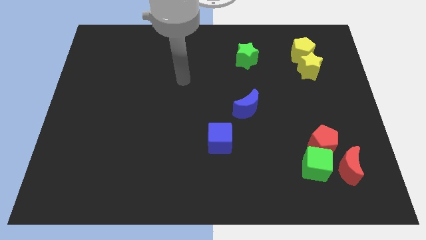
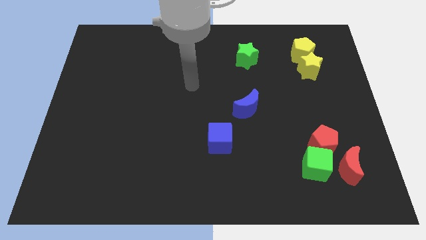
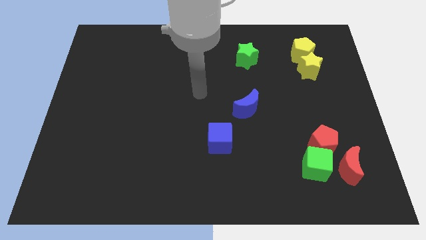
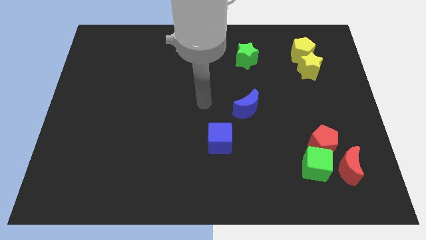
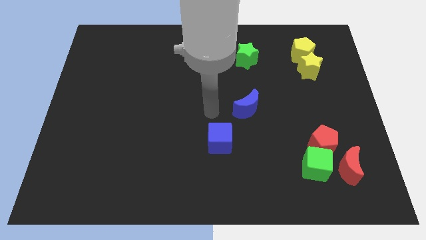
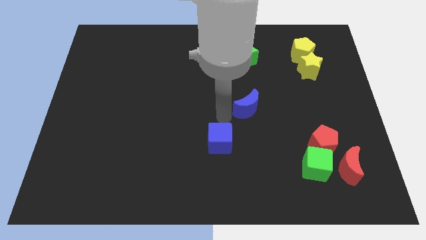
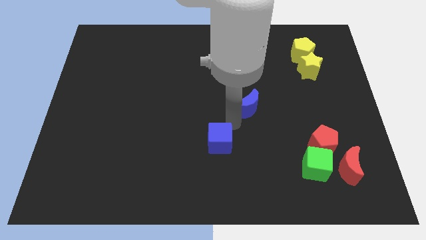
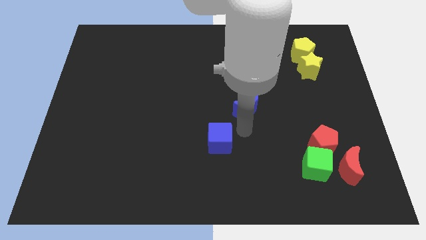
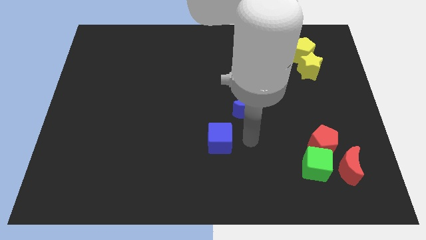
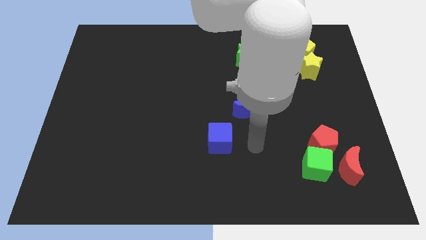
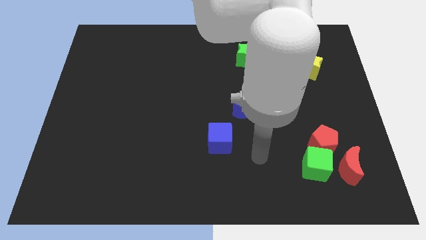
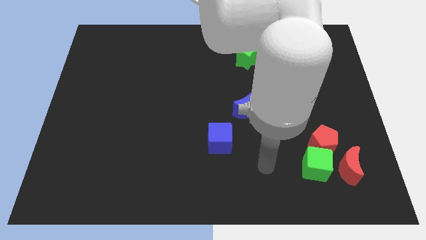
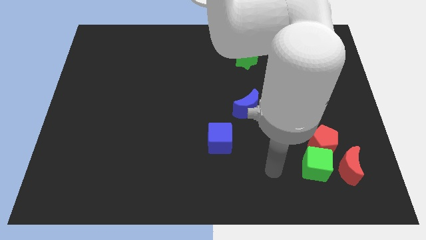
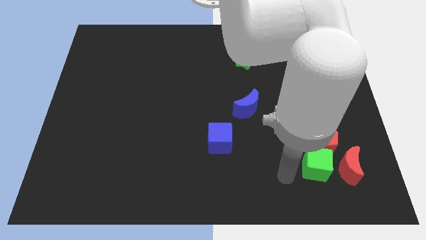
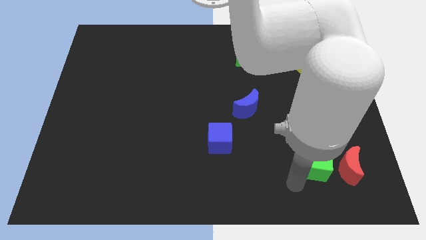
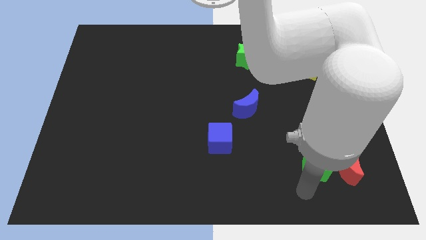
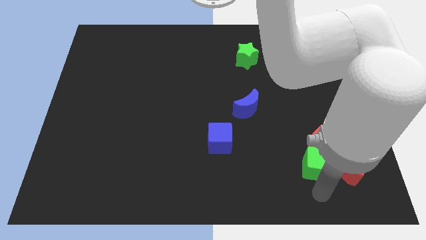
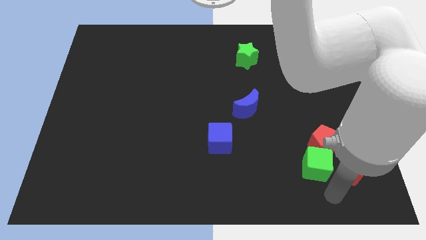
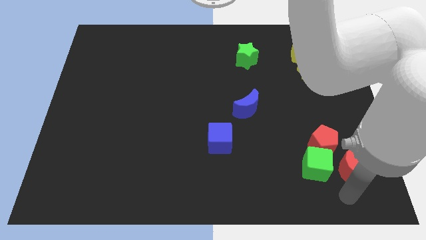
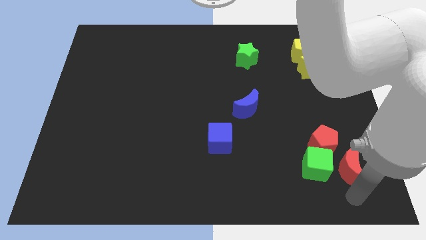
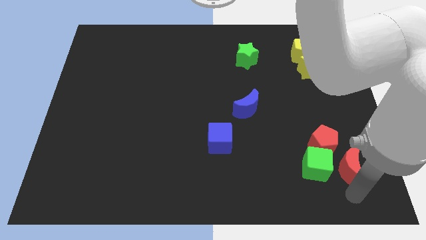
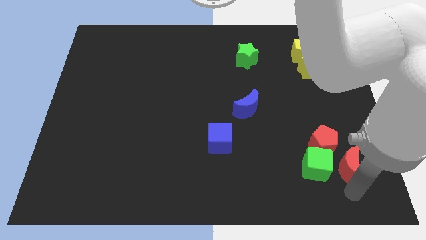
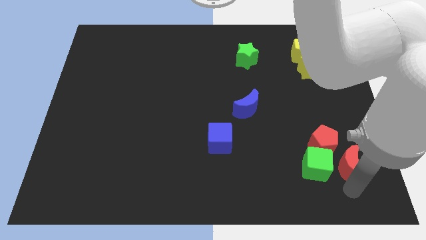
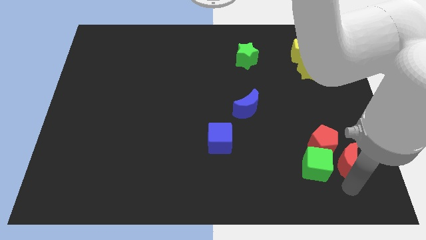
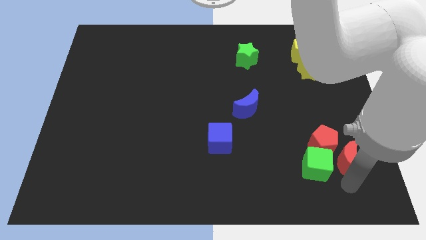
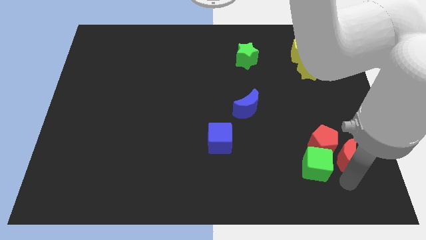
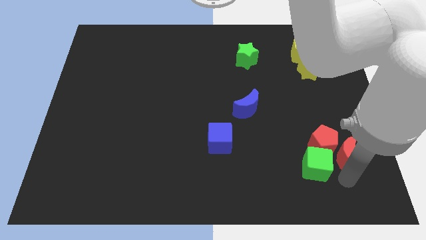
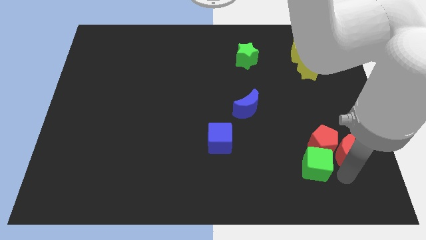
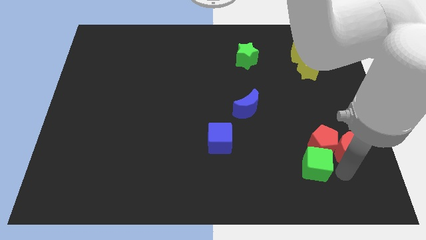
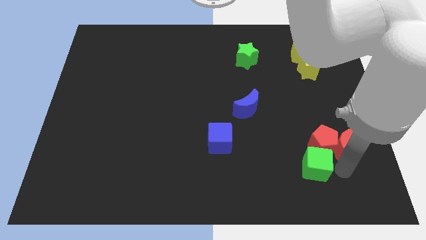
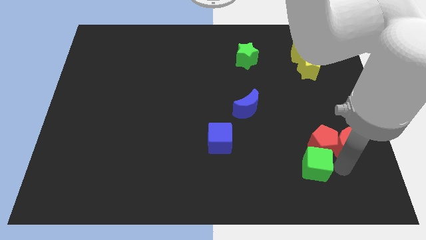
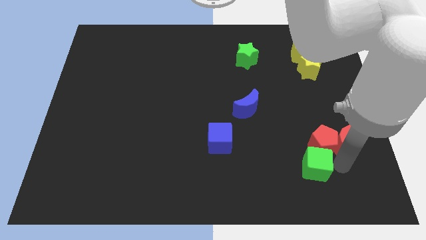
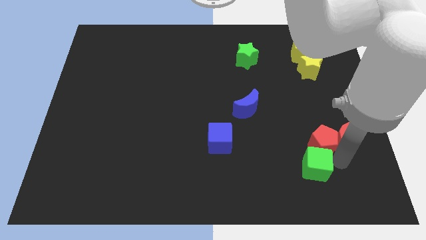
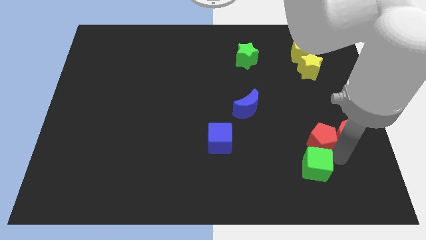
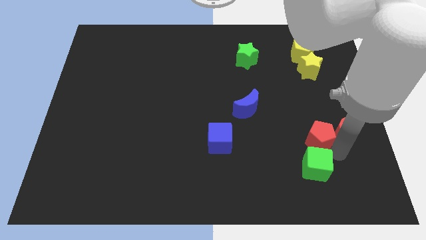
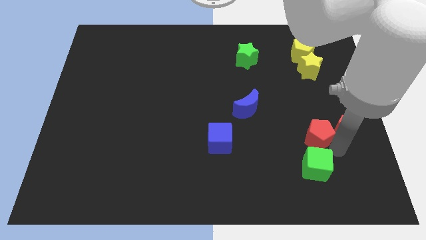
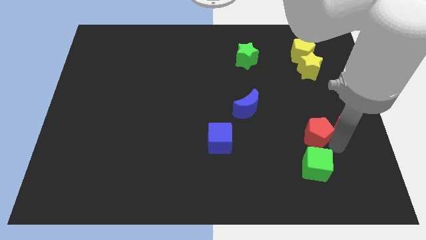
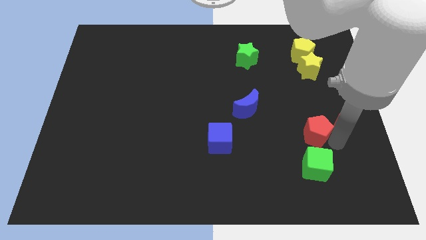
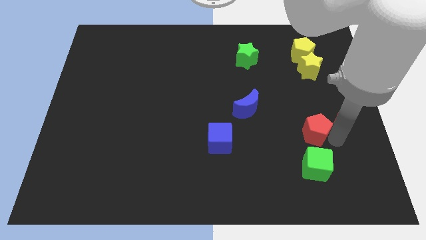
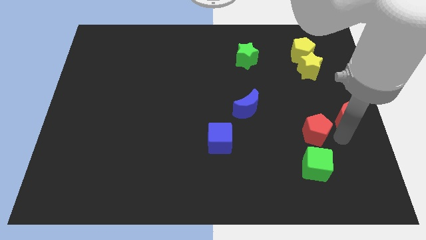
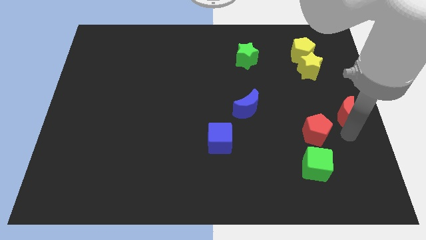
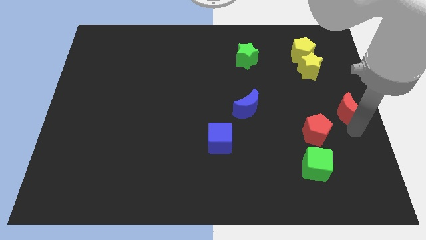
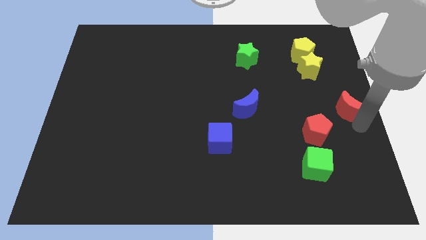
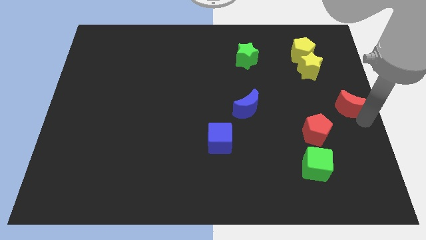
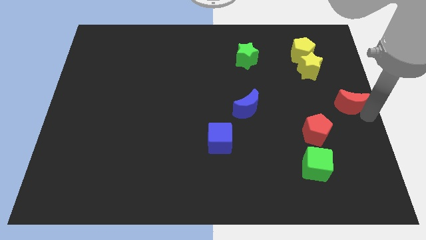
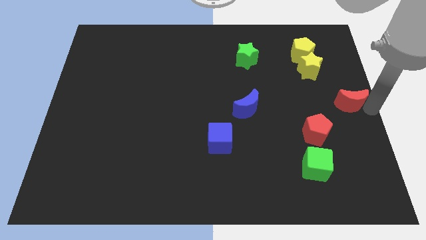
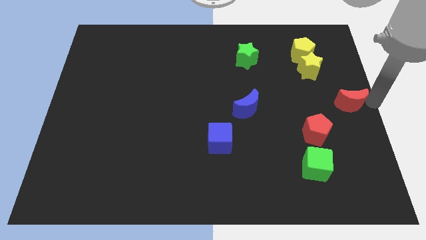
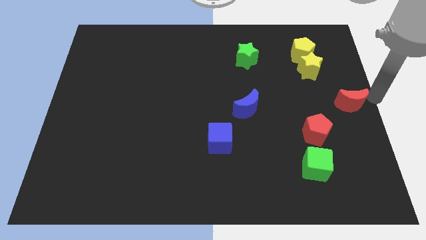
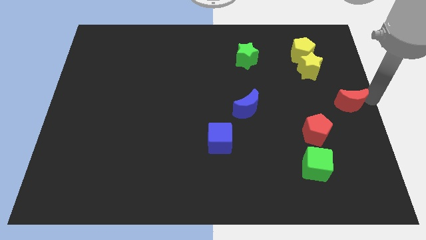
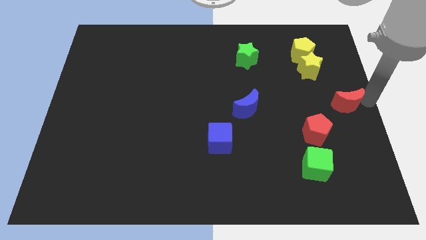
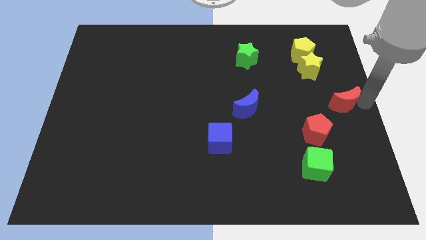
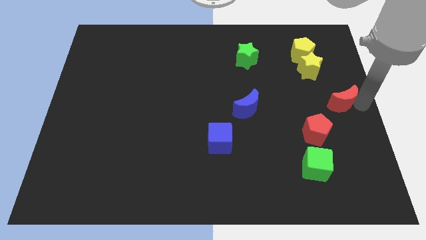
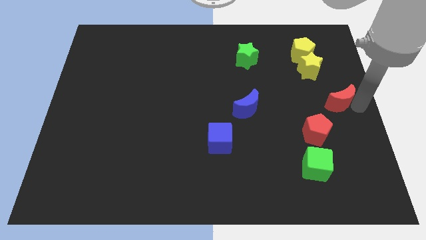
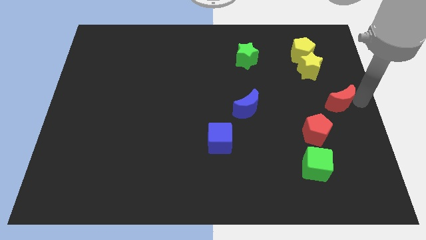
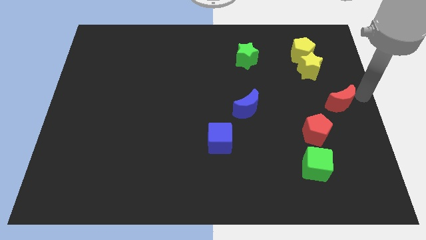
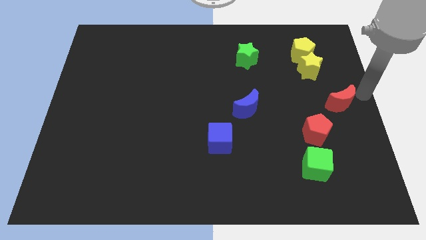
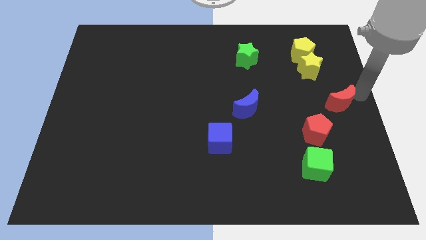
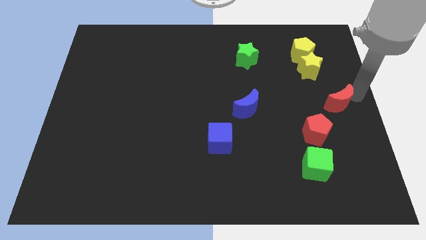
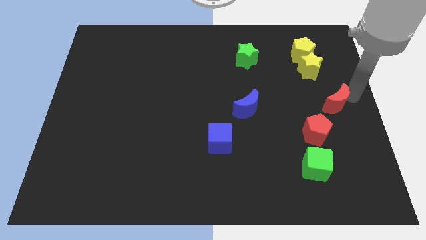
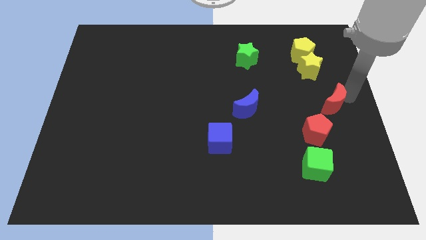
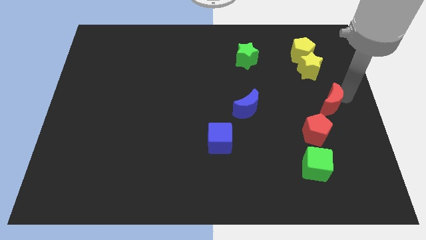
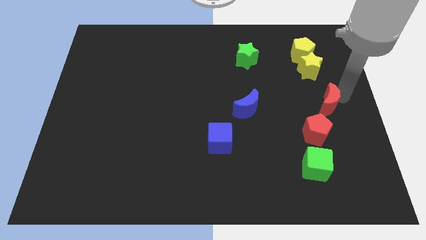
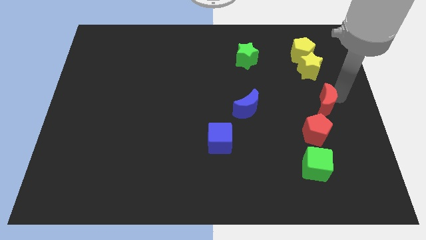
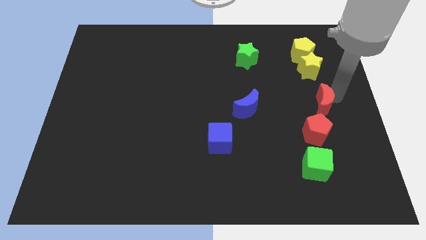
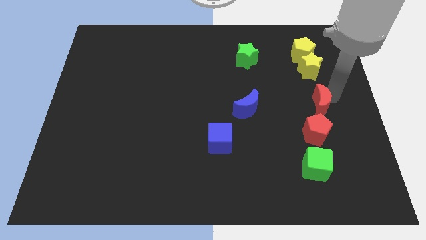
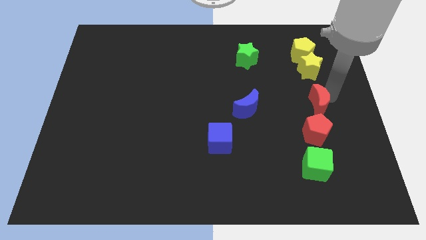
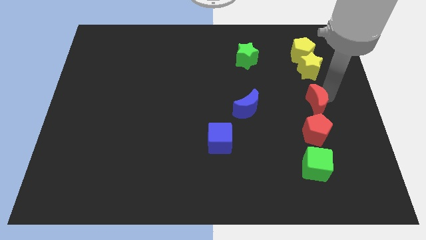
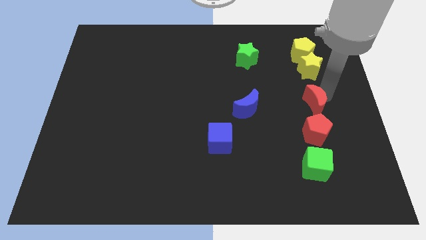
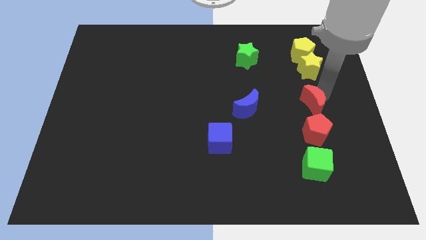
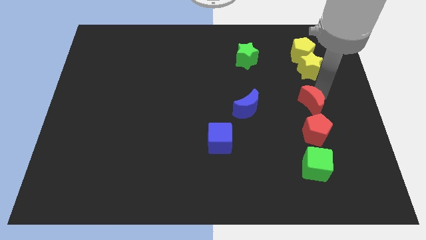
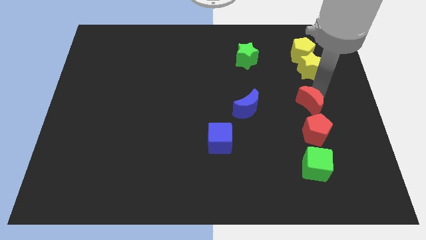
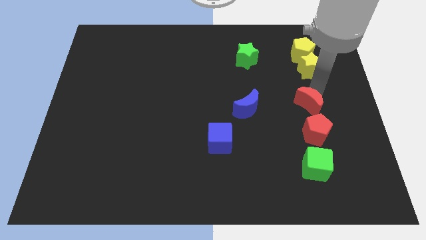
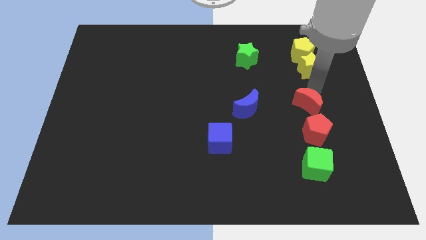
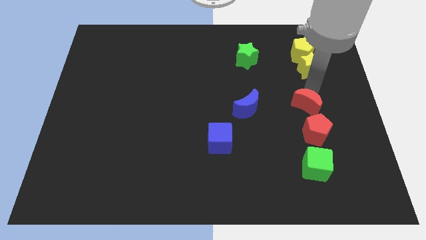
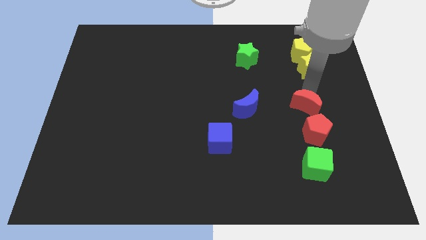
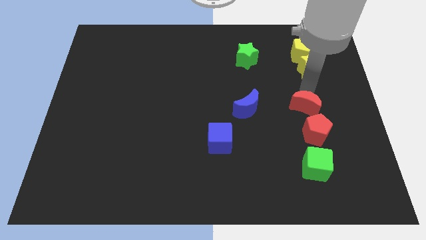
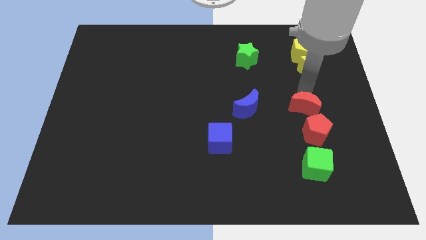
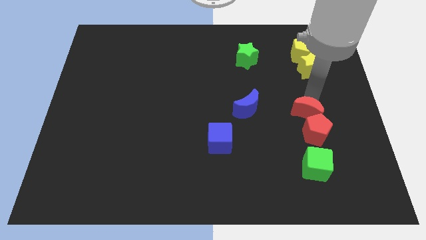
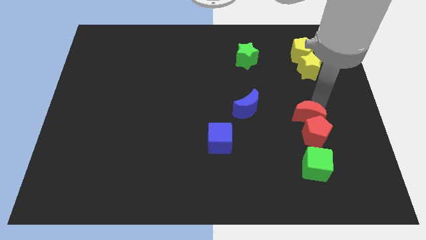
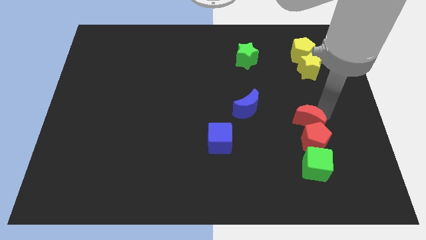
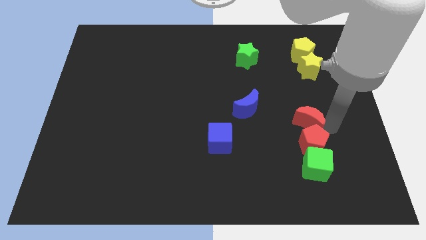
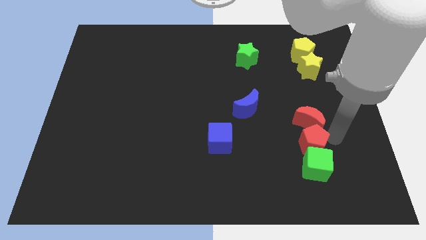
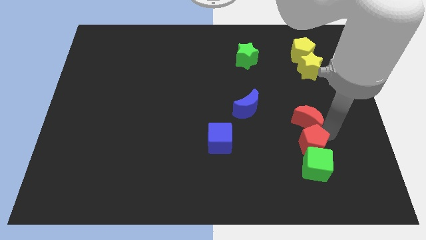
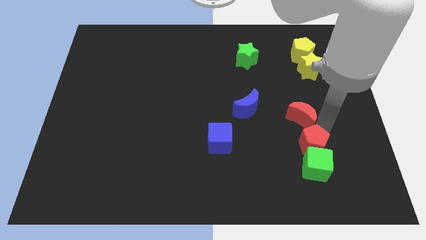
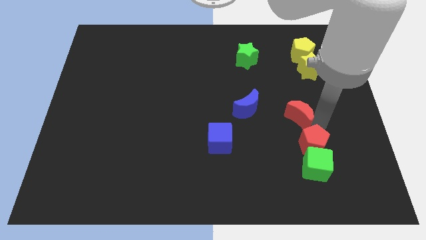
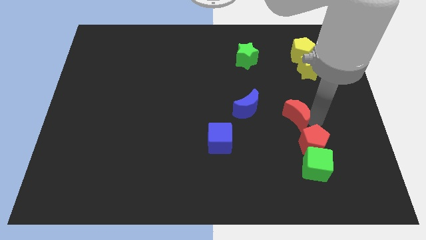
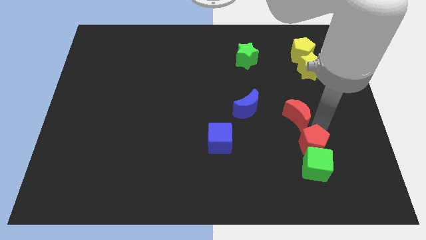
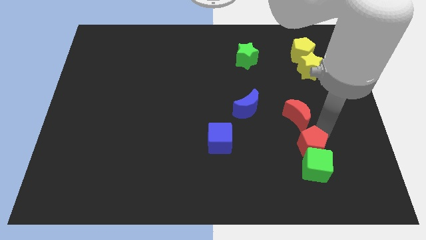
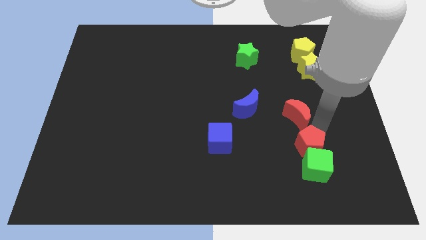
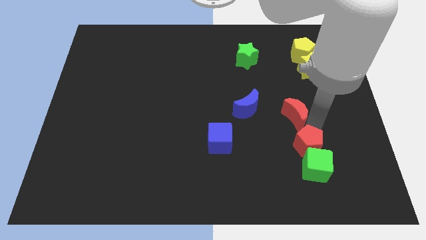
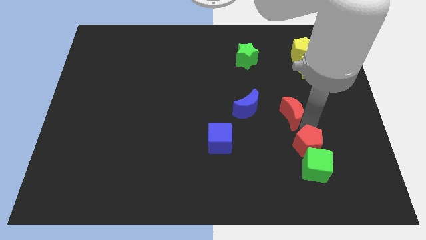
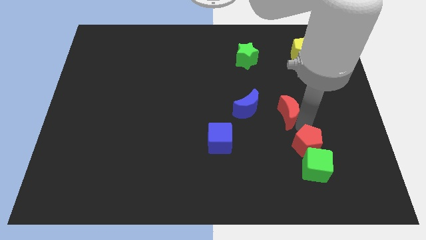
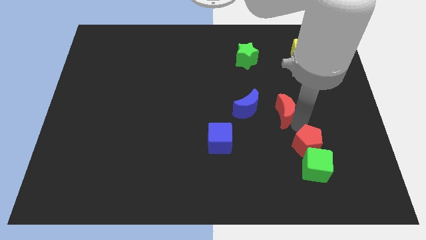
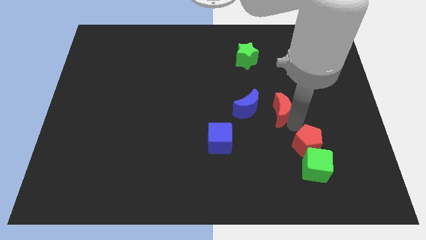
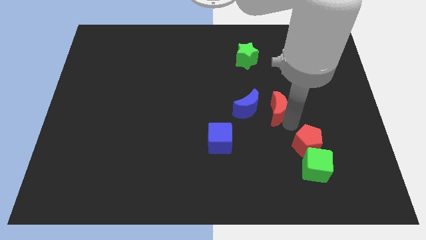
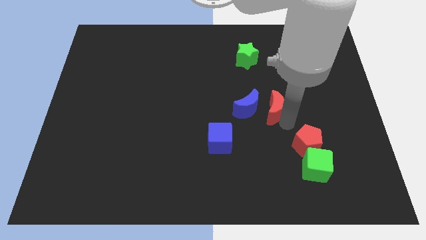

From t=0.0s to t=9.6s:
move the red moon up and then to the left
